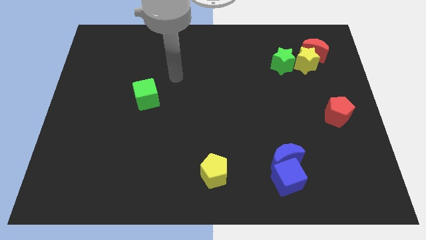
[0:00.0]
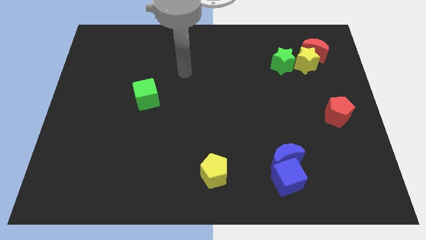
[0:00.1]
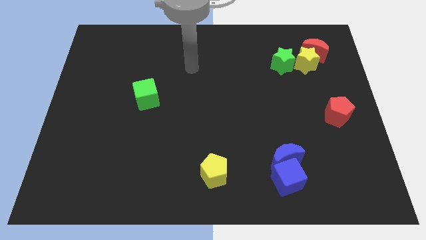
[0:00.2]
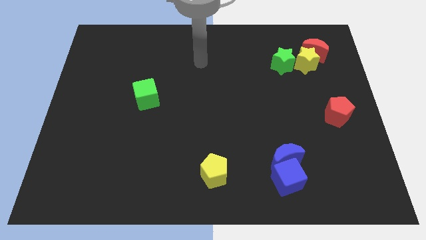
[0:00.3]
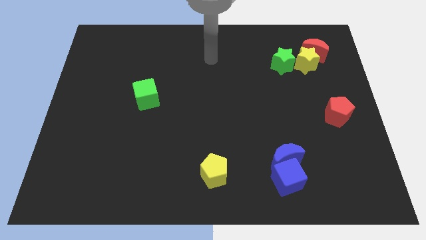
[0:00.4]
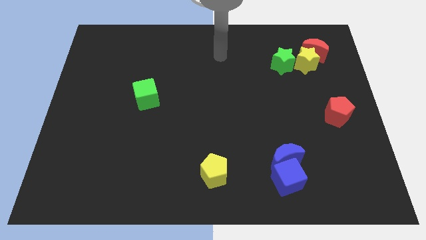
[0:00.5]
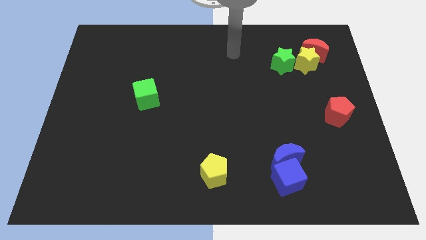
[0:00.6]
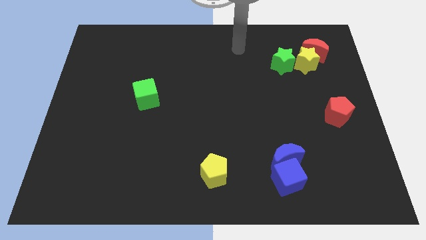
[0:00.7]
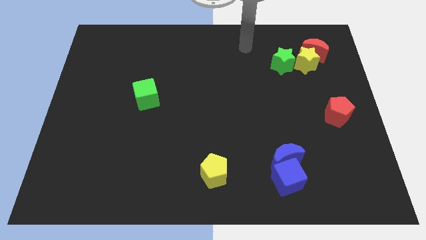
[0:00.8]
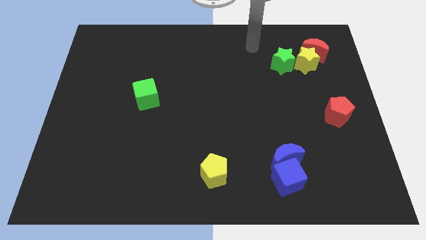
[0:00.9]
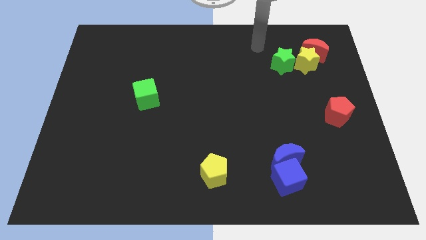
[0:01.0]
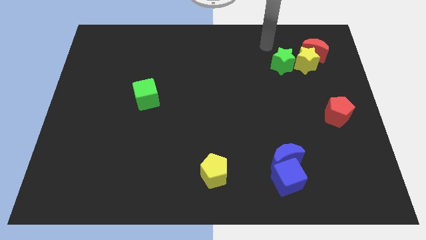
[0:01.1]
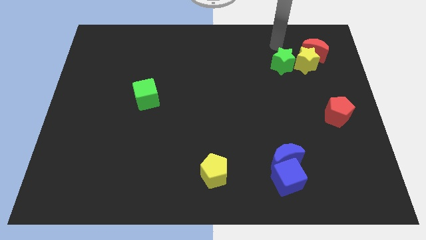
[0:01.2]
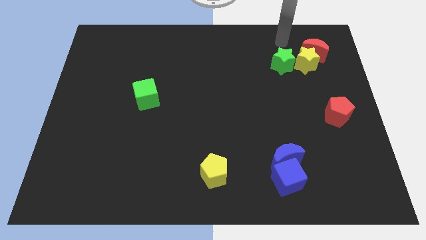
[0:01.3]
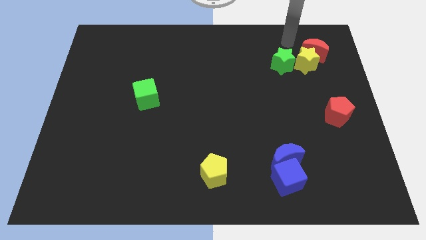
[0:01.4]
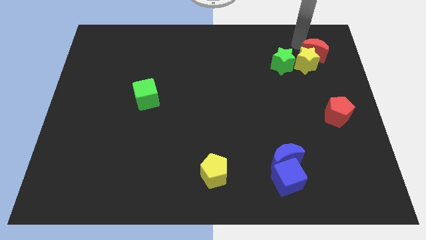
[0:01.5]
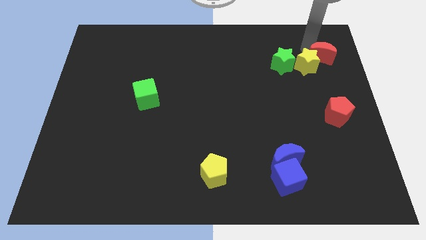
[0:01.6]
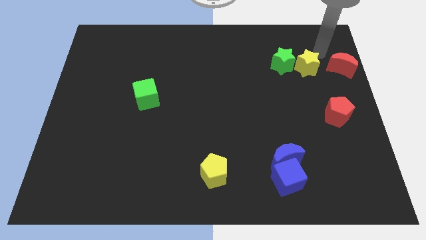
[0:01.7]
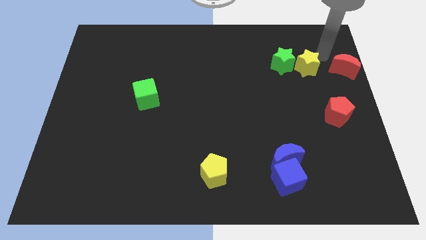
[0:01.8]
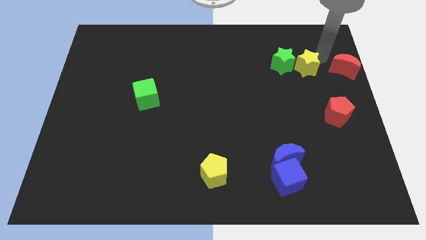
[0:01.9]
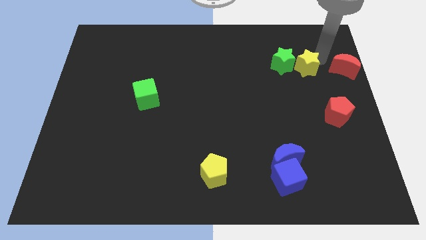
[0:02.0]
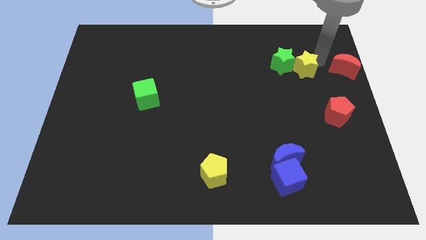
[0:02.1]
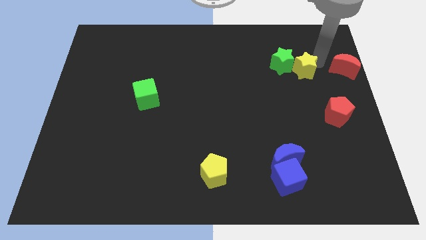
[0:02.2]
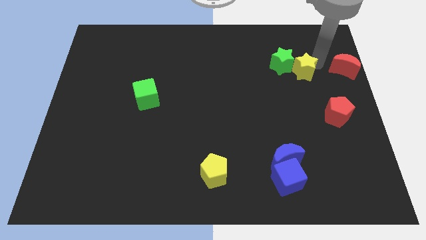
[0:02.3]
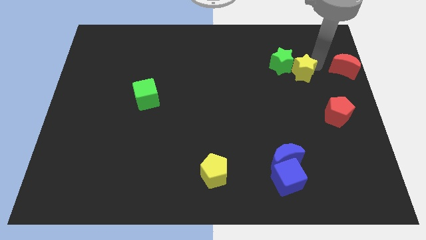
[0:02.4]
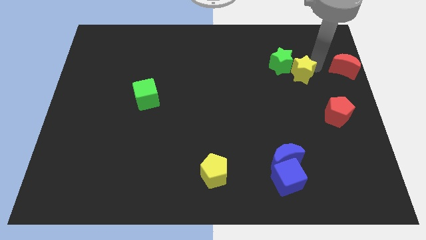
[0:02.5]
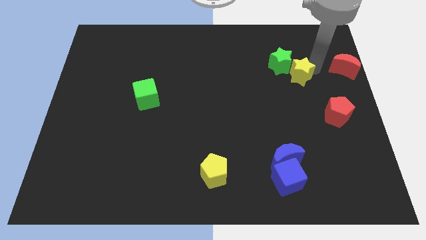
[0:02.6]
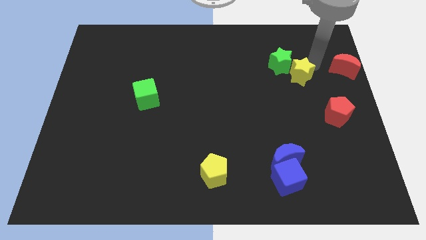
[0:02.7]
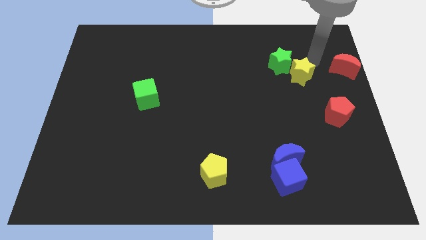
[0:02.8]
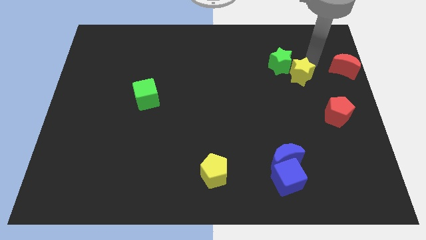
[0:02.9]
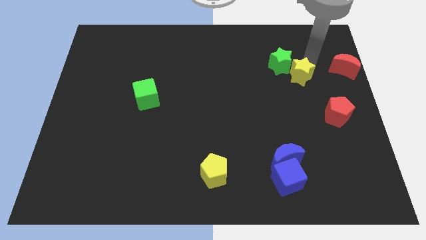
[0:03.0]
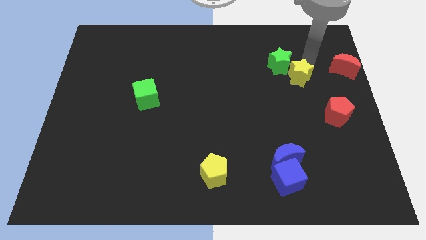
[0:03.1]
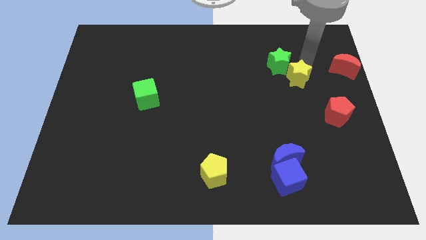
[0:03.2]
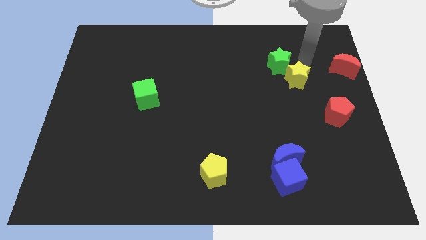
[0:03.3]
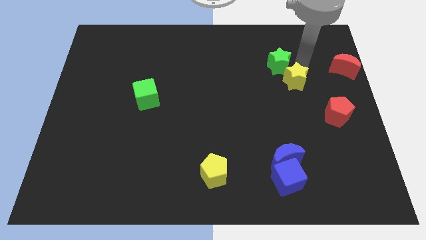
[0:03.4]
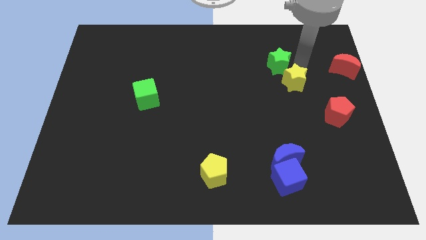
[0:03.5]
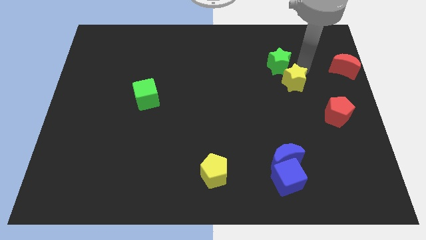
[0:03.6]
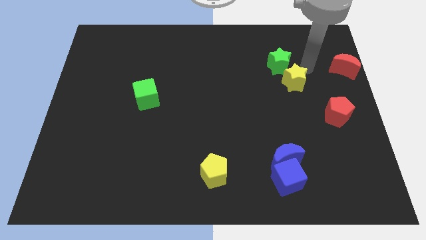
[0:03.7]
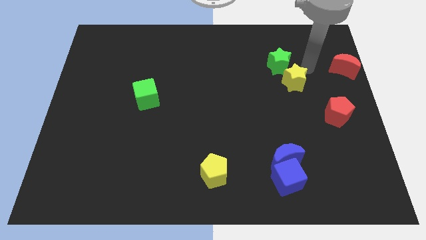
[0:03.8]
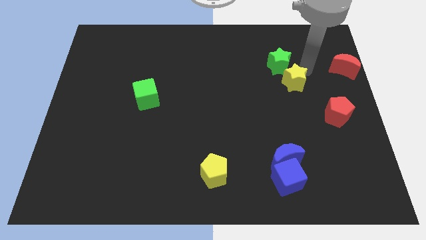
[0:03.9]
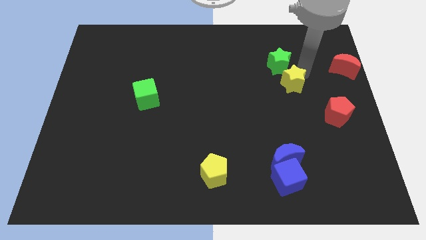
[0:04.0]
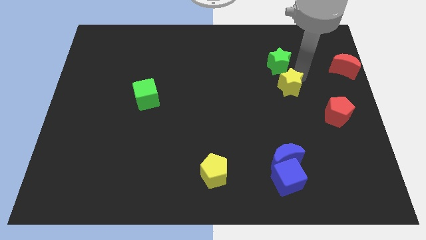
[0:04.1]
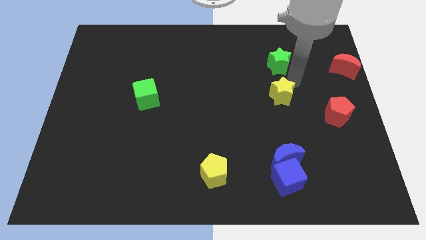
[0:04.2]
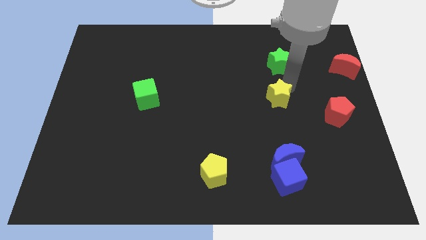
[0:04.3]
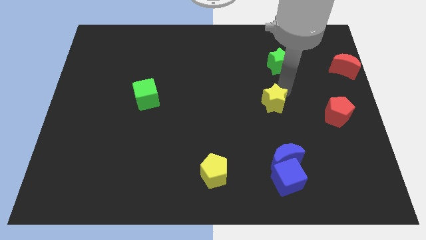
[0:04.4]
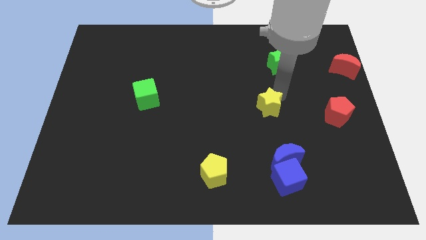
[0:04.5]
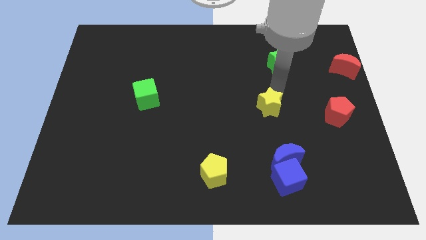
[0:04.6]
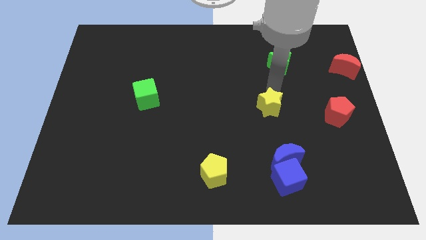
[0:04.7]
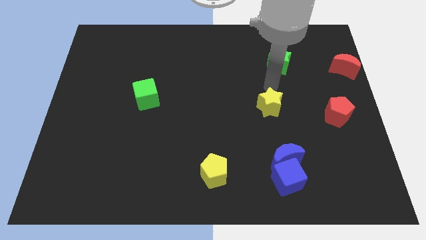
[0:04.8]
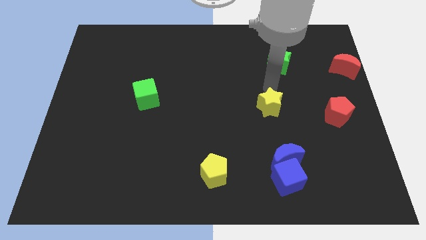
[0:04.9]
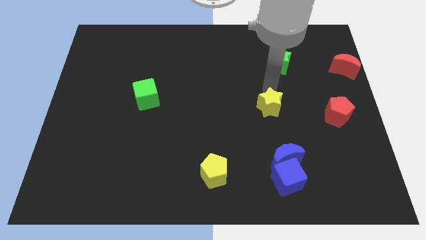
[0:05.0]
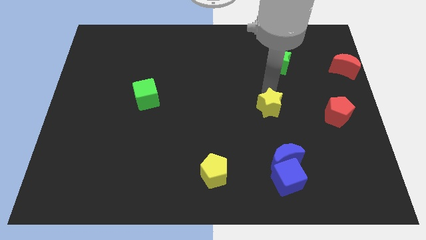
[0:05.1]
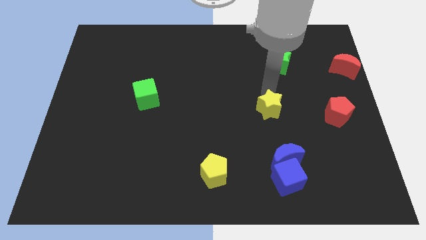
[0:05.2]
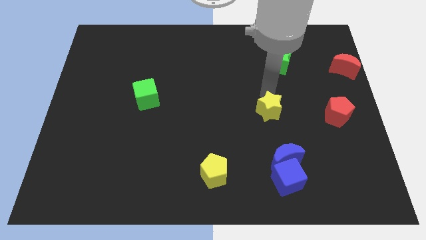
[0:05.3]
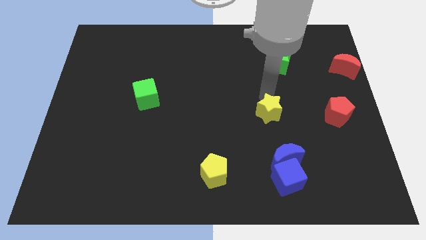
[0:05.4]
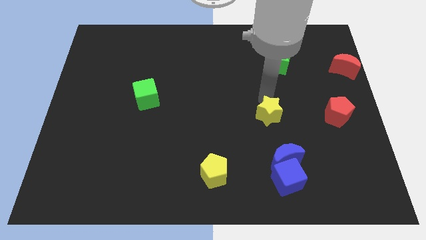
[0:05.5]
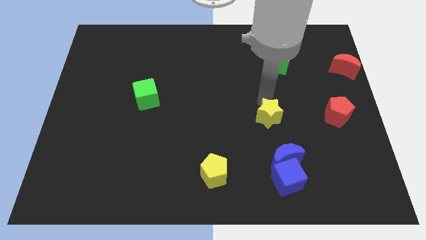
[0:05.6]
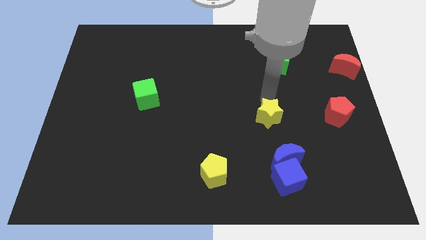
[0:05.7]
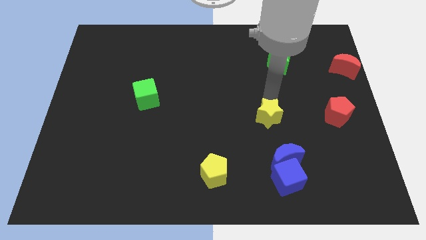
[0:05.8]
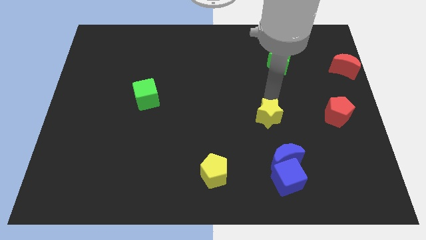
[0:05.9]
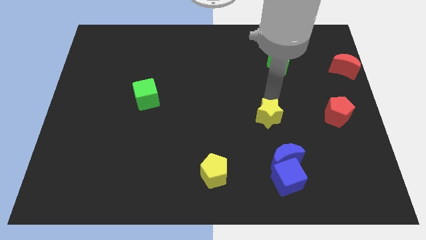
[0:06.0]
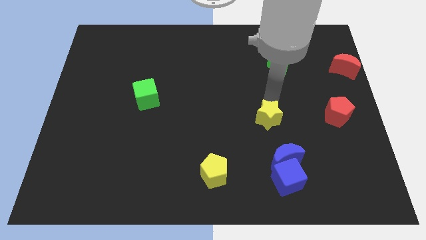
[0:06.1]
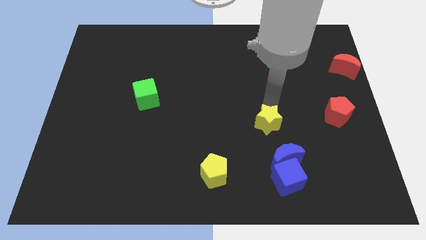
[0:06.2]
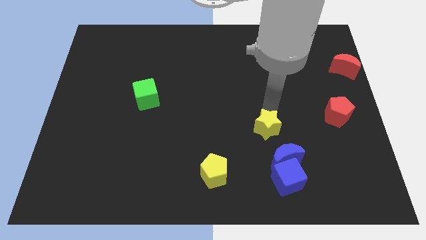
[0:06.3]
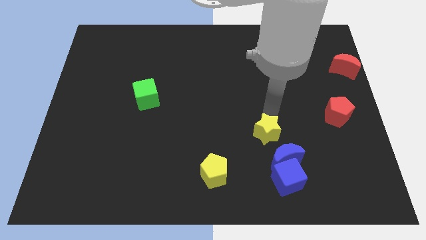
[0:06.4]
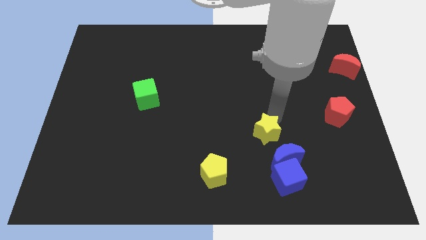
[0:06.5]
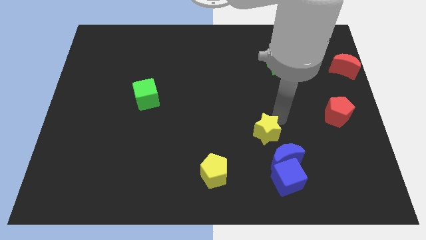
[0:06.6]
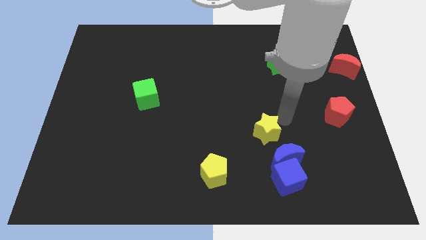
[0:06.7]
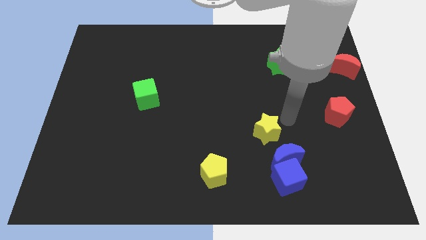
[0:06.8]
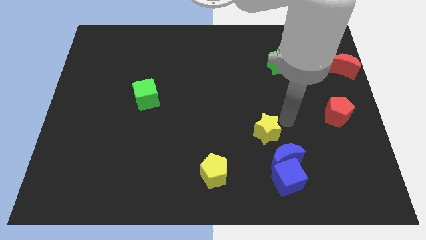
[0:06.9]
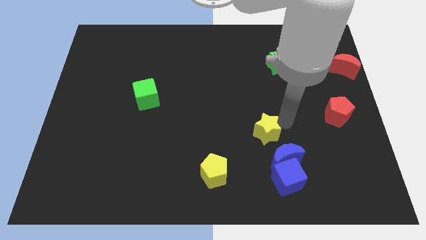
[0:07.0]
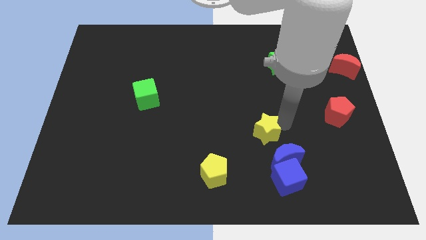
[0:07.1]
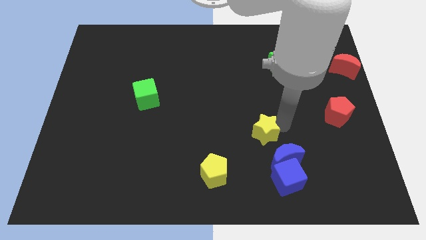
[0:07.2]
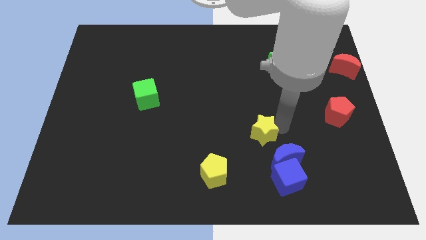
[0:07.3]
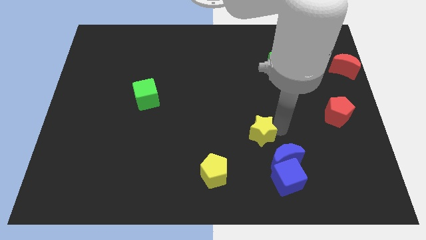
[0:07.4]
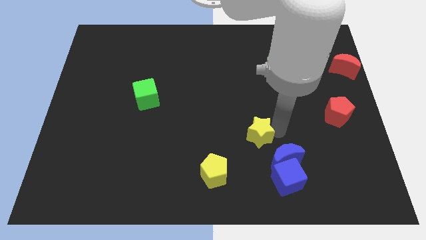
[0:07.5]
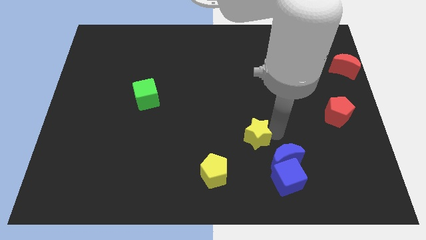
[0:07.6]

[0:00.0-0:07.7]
move the yellow star to the top right side of the yellow pentagon
